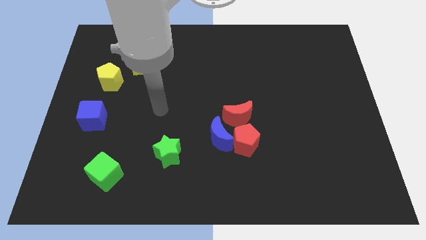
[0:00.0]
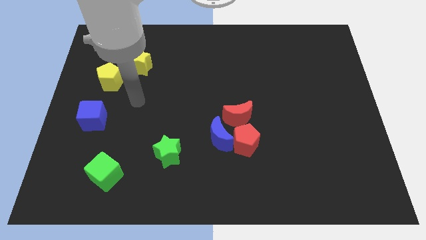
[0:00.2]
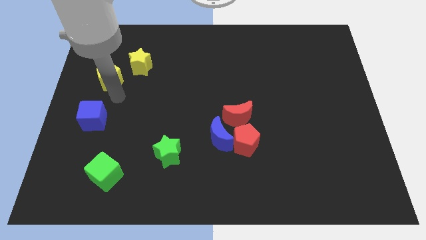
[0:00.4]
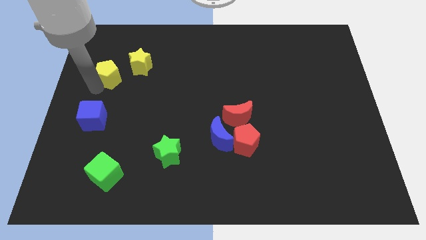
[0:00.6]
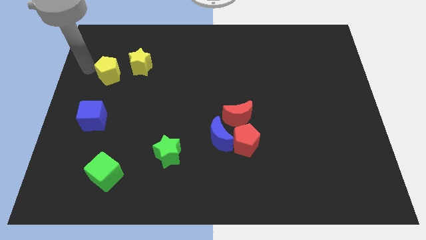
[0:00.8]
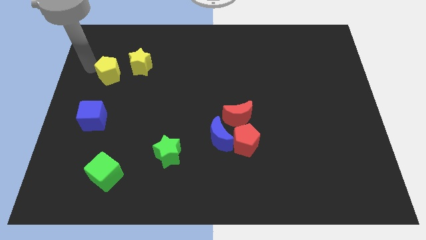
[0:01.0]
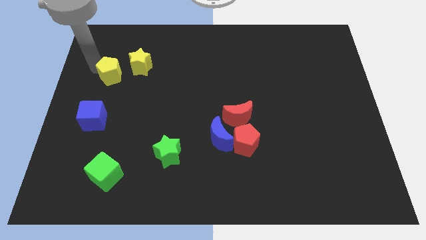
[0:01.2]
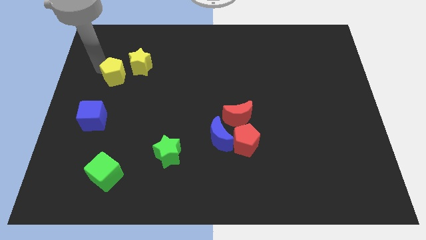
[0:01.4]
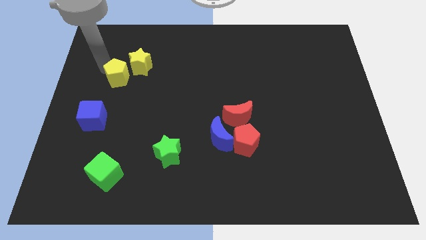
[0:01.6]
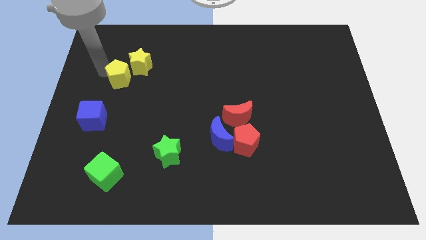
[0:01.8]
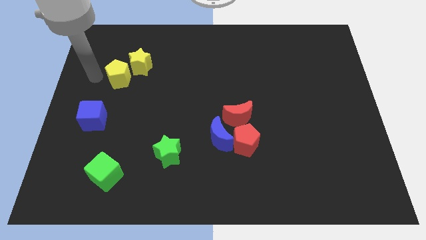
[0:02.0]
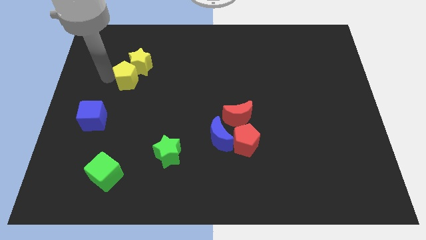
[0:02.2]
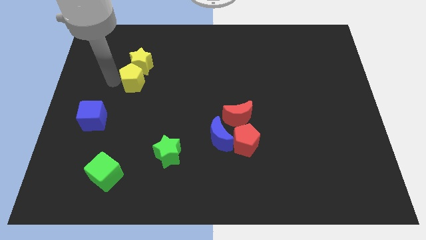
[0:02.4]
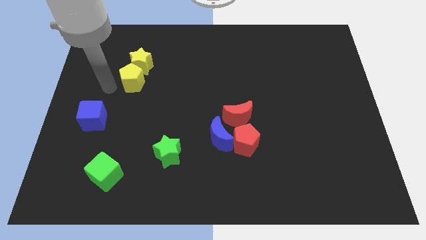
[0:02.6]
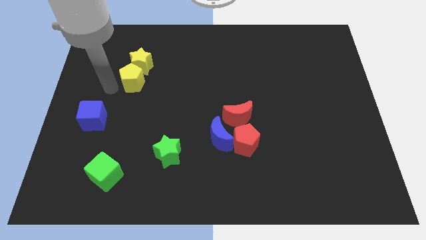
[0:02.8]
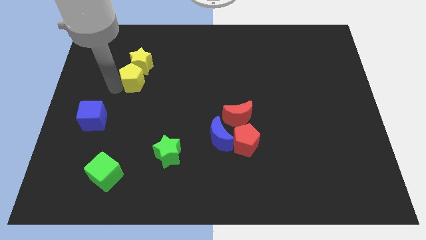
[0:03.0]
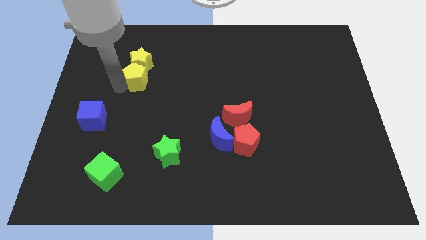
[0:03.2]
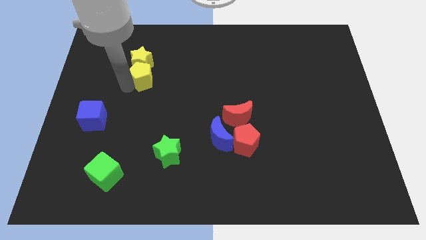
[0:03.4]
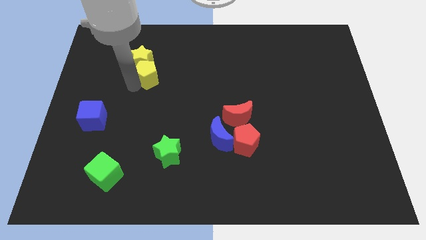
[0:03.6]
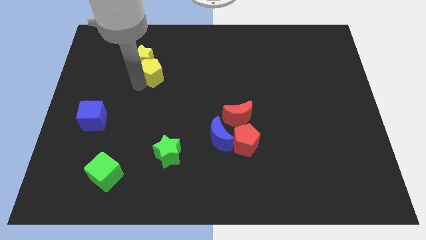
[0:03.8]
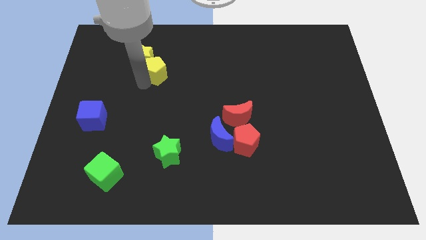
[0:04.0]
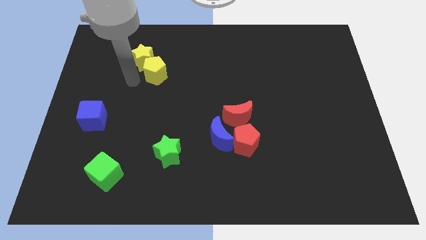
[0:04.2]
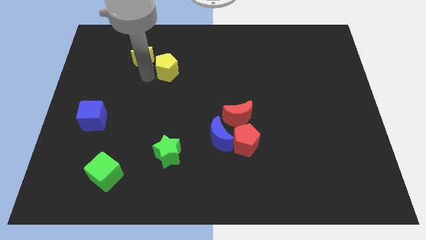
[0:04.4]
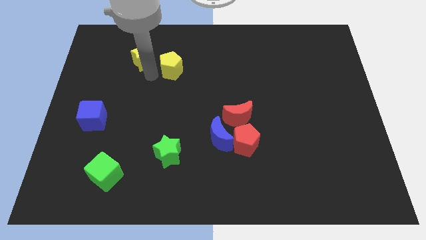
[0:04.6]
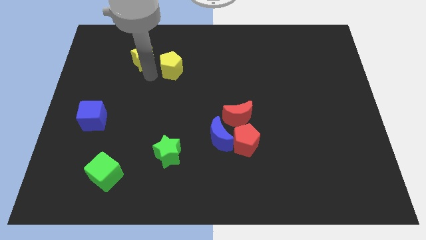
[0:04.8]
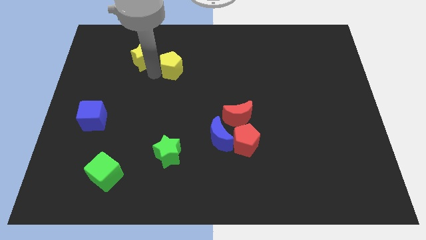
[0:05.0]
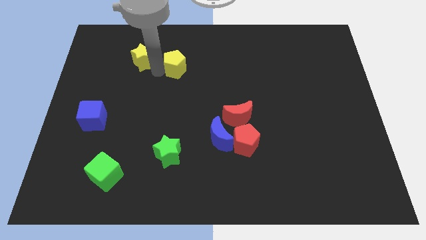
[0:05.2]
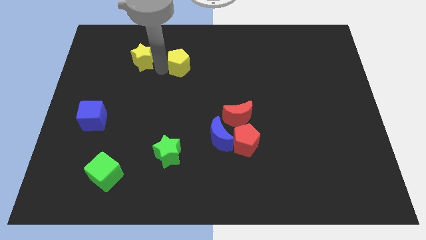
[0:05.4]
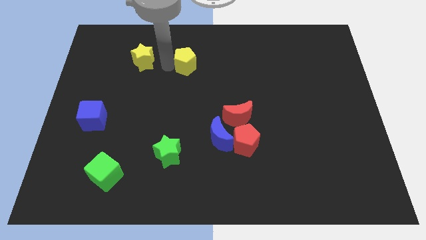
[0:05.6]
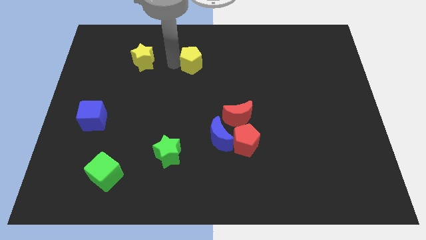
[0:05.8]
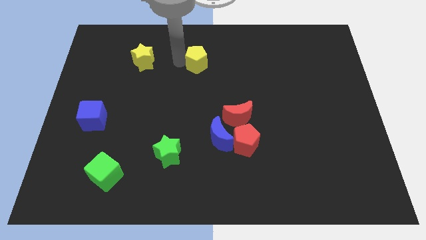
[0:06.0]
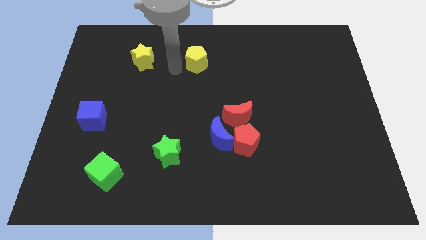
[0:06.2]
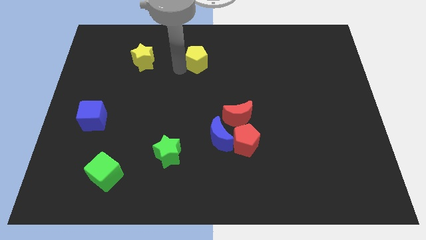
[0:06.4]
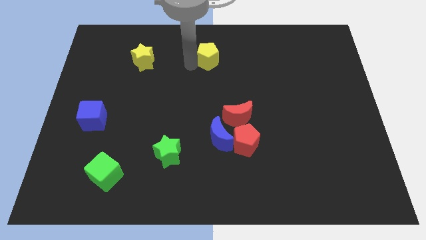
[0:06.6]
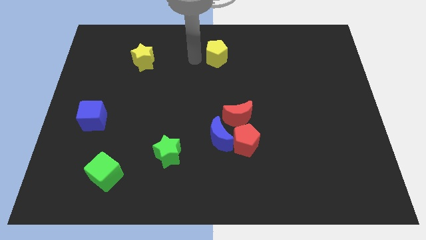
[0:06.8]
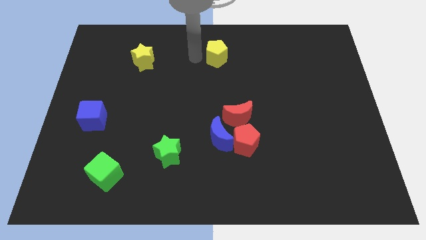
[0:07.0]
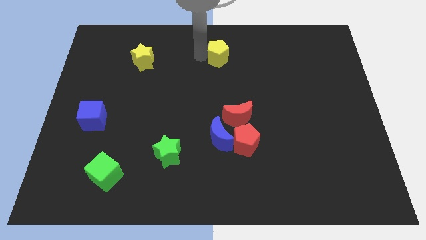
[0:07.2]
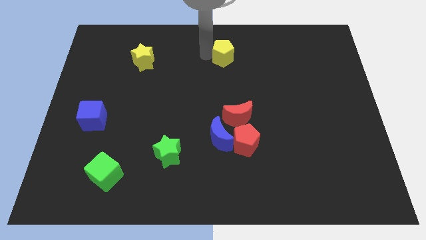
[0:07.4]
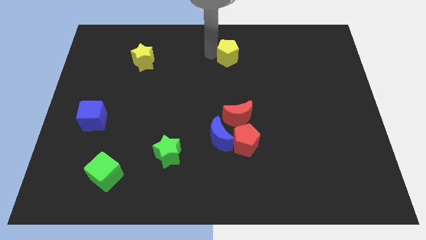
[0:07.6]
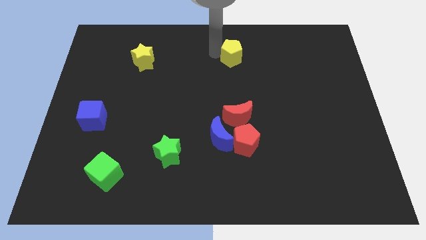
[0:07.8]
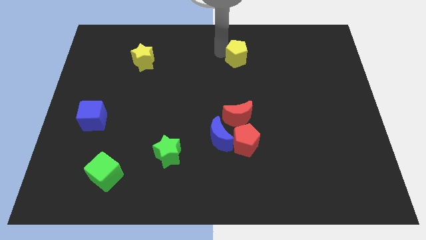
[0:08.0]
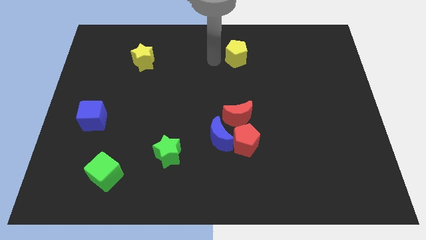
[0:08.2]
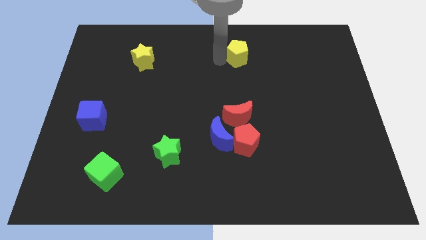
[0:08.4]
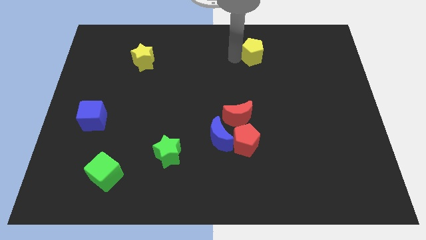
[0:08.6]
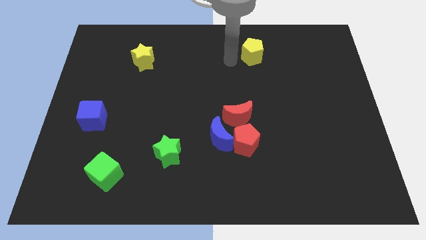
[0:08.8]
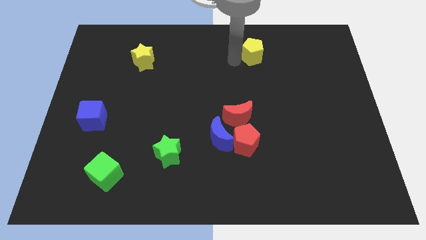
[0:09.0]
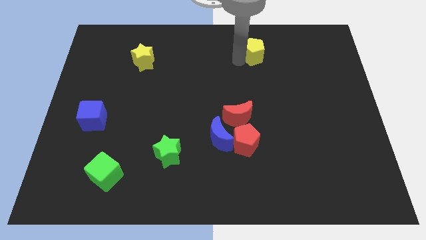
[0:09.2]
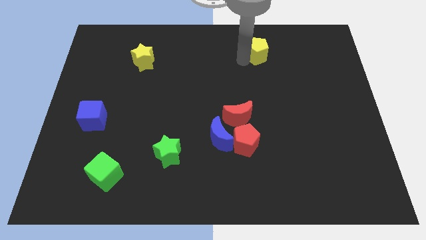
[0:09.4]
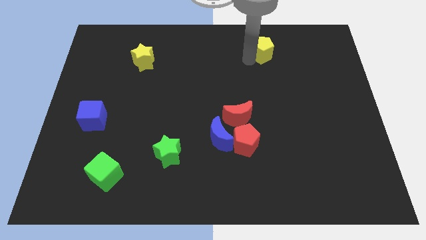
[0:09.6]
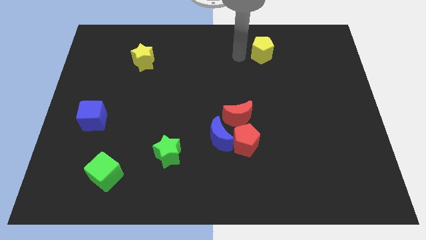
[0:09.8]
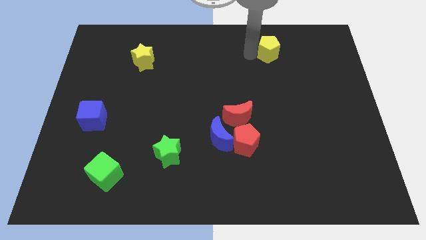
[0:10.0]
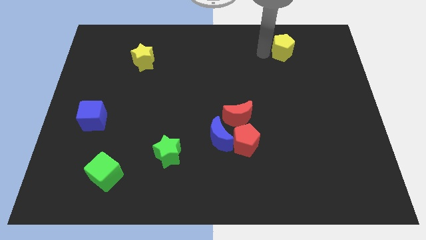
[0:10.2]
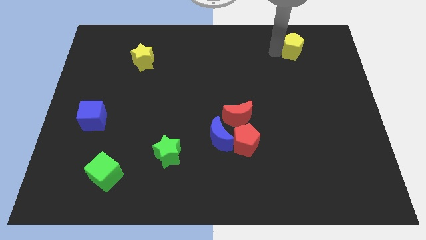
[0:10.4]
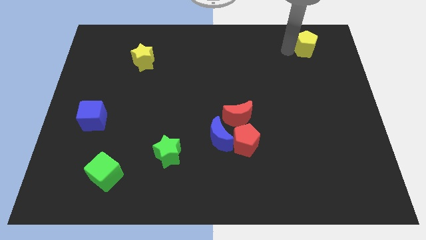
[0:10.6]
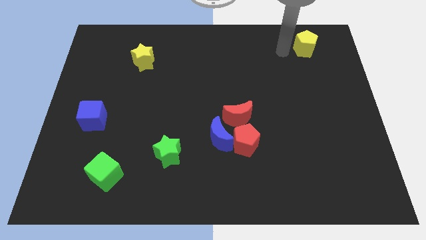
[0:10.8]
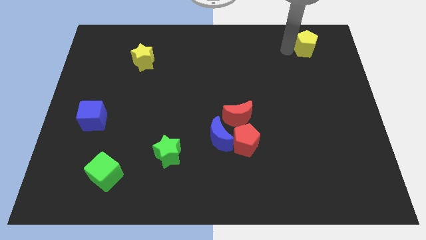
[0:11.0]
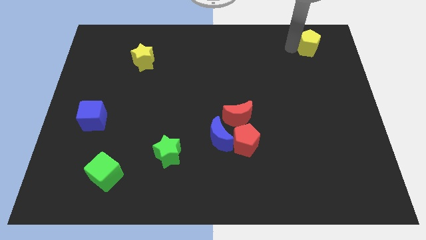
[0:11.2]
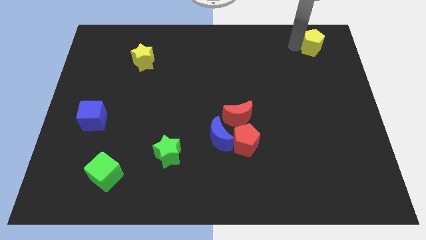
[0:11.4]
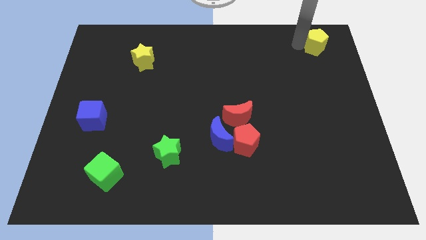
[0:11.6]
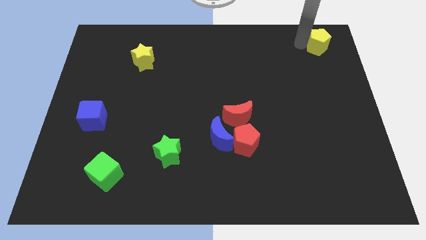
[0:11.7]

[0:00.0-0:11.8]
move the yellow pentagon to the top right of the board
